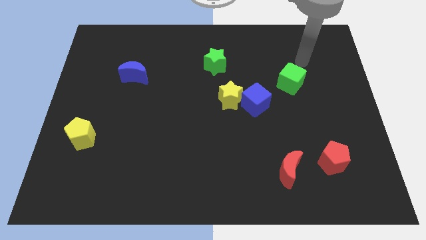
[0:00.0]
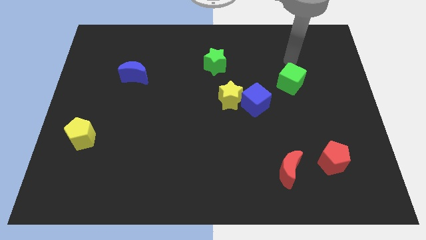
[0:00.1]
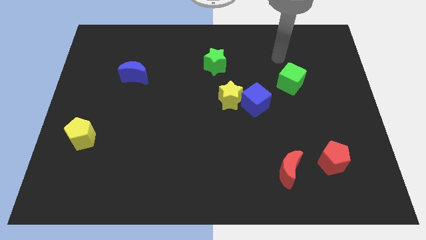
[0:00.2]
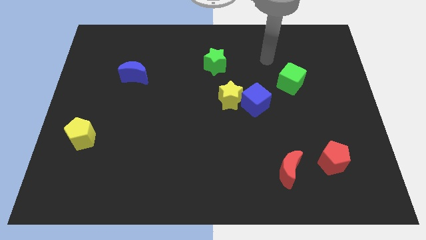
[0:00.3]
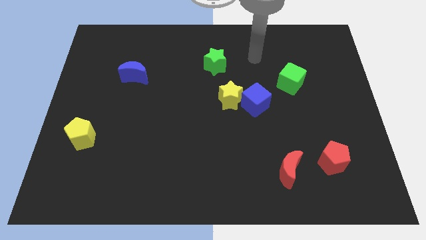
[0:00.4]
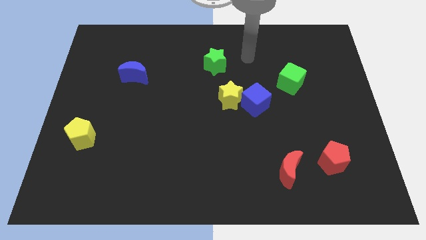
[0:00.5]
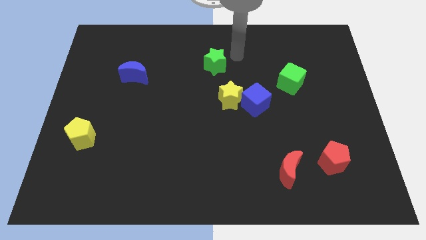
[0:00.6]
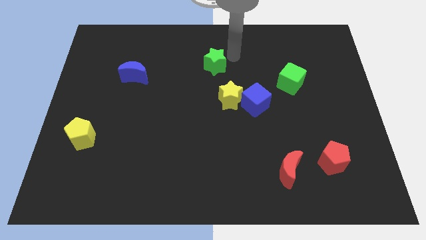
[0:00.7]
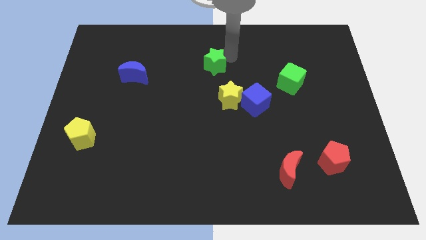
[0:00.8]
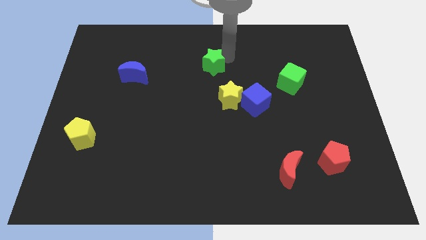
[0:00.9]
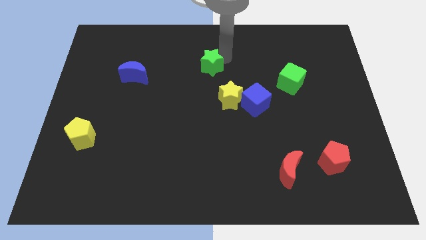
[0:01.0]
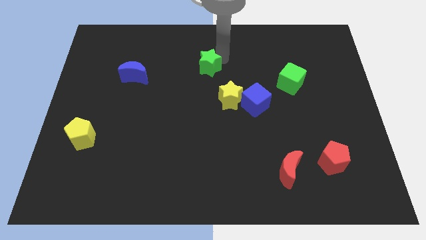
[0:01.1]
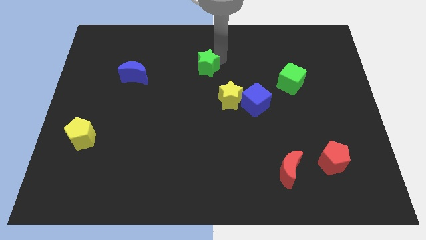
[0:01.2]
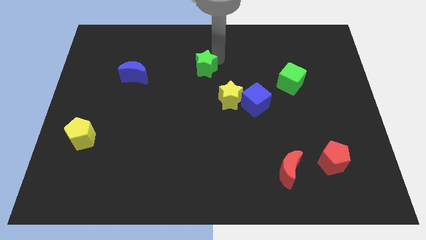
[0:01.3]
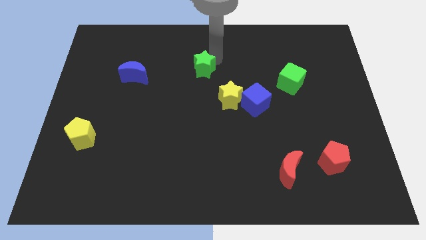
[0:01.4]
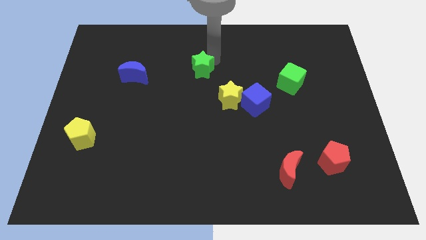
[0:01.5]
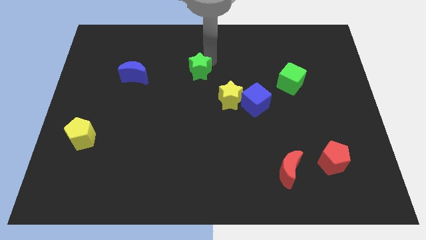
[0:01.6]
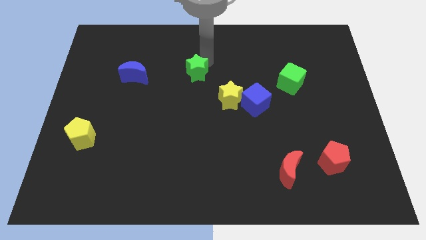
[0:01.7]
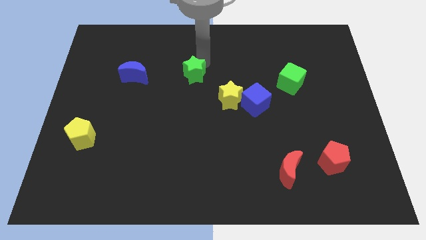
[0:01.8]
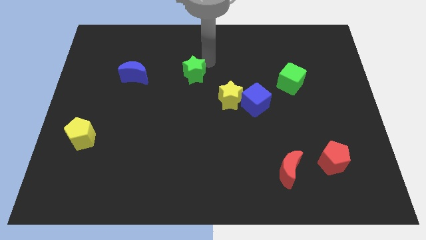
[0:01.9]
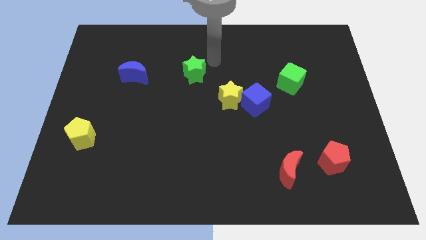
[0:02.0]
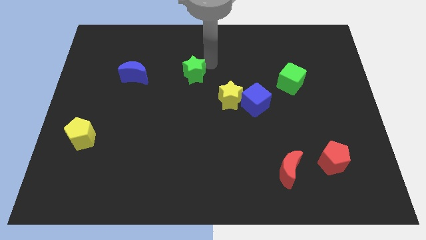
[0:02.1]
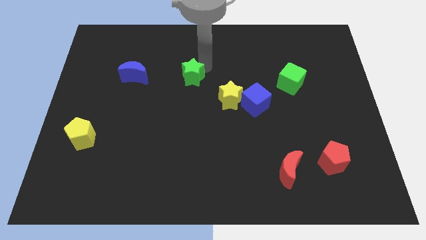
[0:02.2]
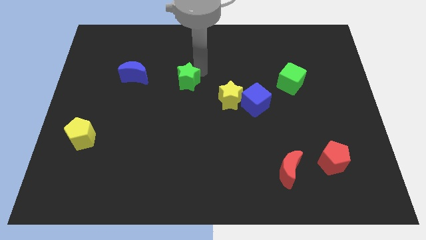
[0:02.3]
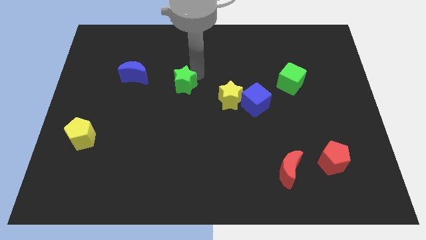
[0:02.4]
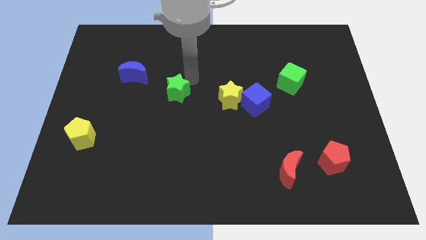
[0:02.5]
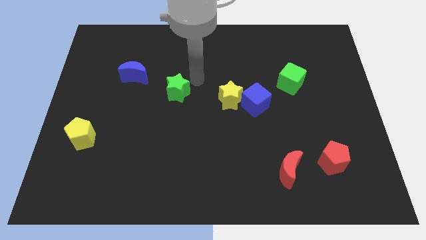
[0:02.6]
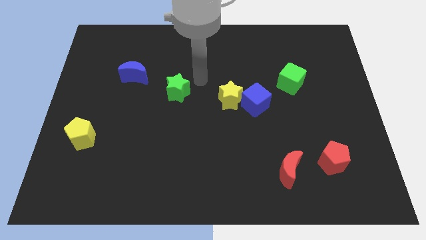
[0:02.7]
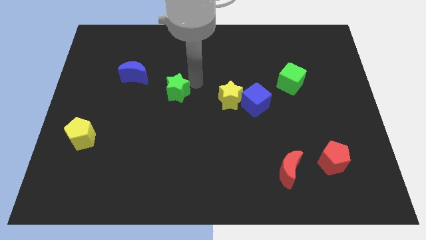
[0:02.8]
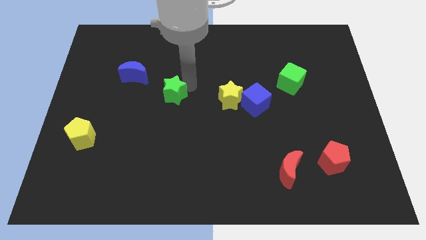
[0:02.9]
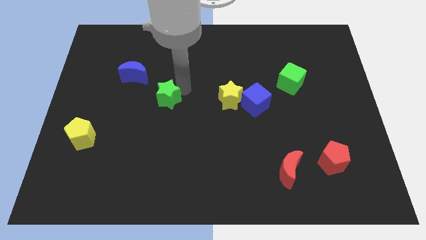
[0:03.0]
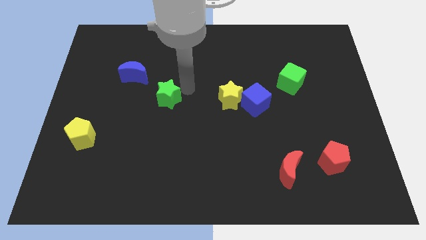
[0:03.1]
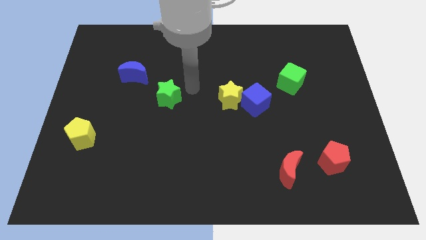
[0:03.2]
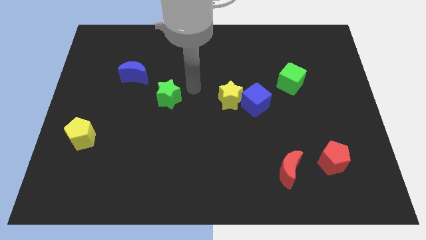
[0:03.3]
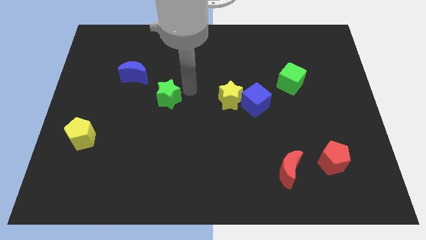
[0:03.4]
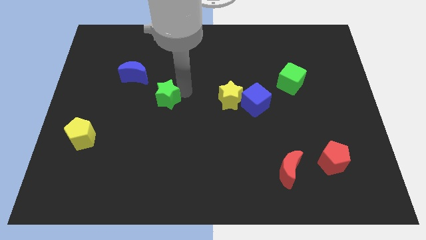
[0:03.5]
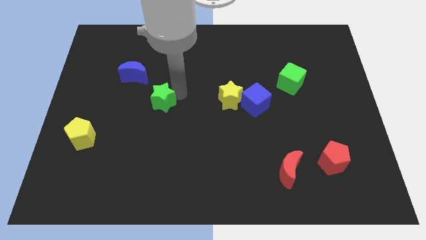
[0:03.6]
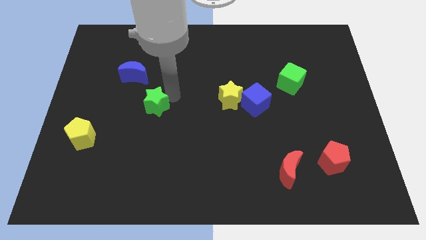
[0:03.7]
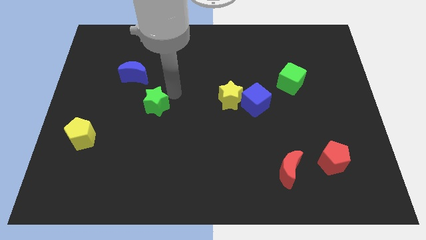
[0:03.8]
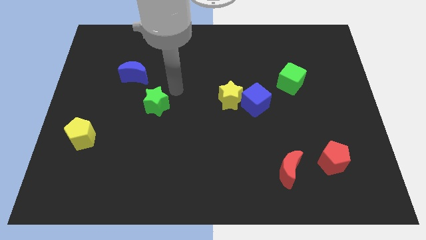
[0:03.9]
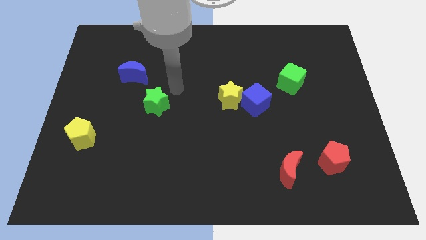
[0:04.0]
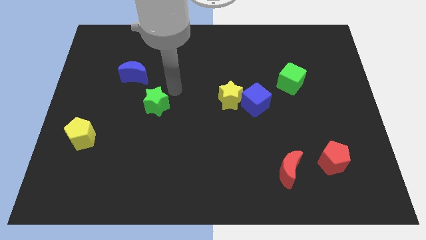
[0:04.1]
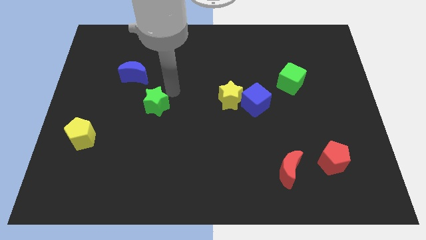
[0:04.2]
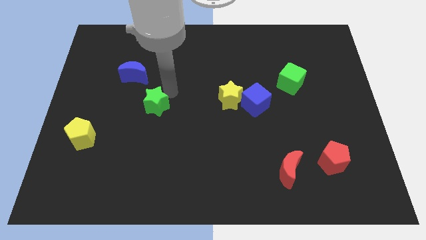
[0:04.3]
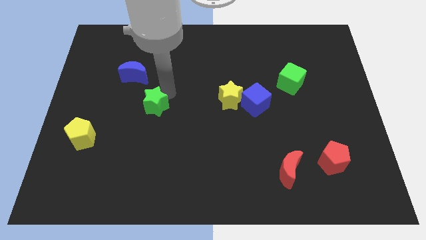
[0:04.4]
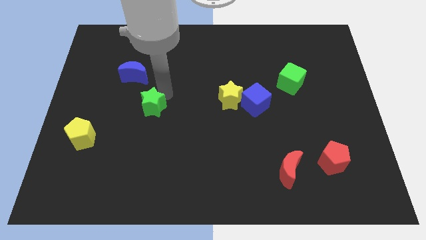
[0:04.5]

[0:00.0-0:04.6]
push the green star down and left

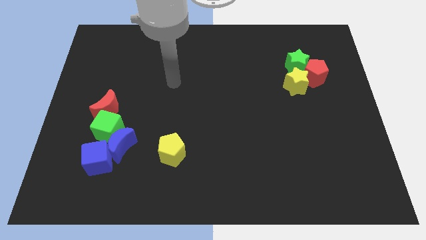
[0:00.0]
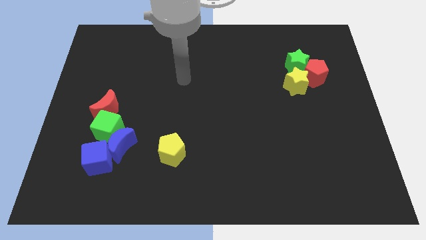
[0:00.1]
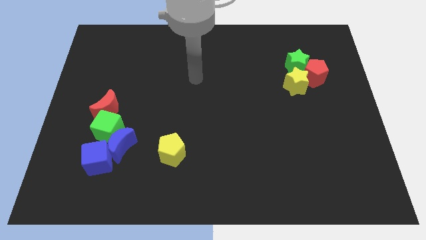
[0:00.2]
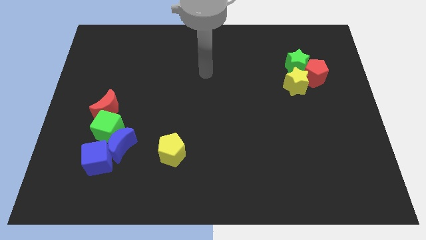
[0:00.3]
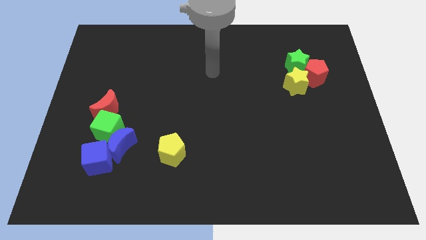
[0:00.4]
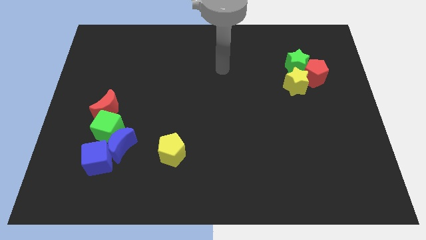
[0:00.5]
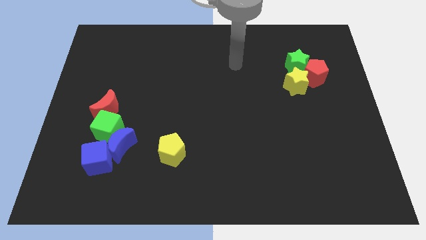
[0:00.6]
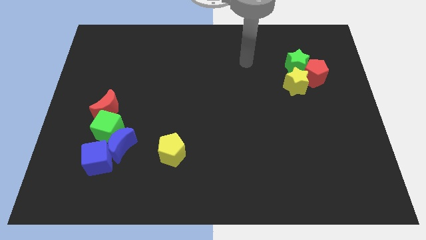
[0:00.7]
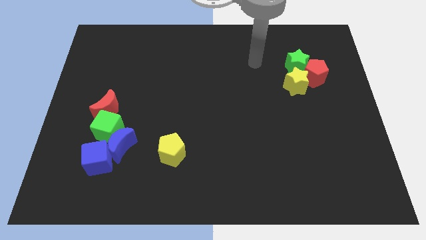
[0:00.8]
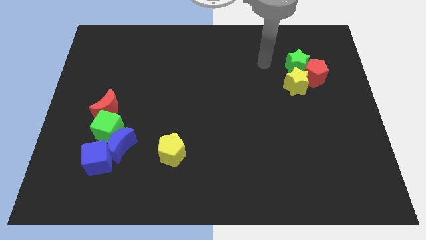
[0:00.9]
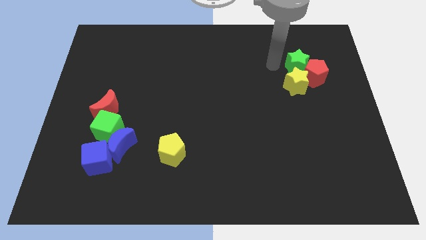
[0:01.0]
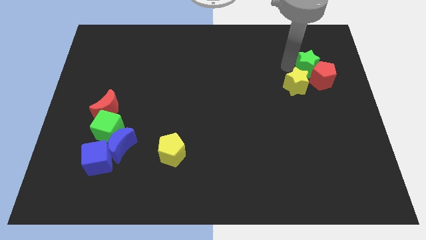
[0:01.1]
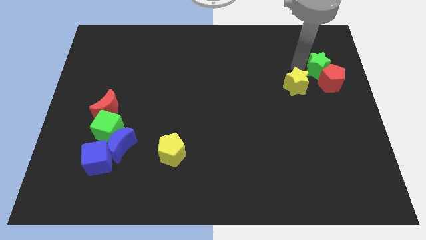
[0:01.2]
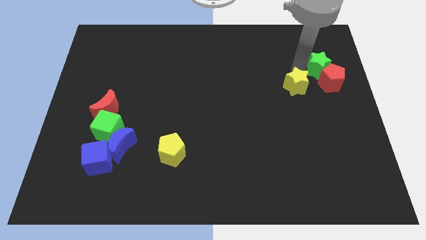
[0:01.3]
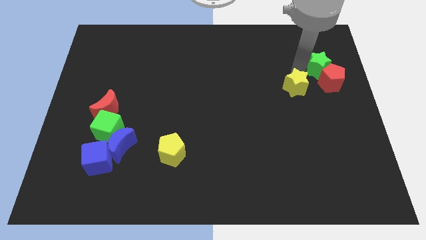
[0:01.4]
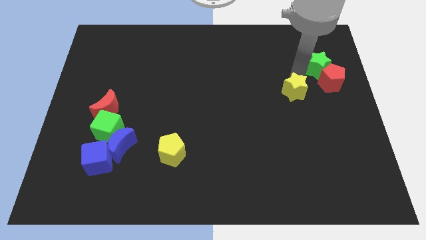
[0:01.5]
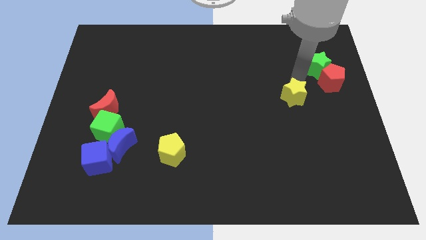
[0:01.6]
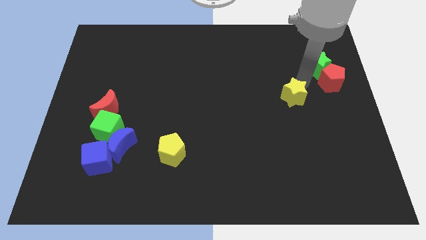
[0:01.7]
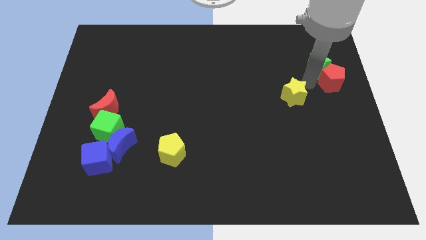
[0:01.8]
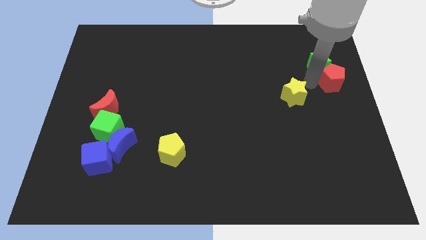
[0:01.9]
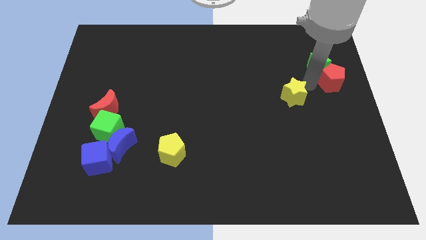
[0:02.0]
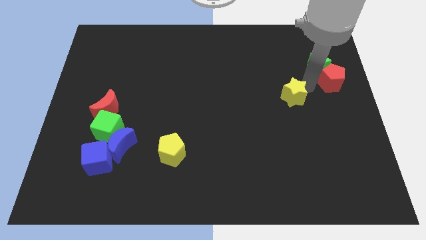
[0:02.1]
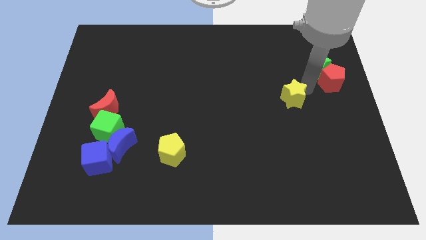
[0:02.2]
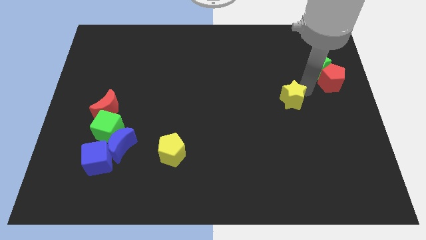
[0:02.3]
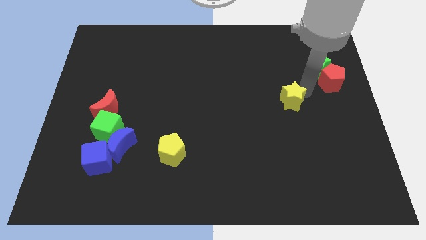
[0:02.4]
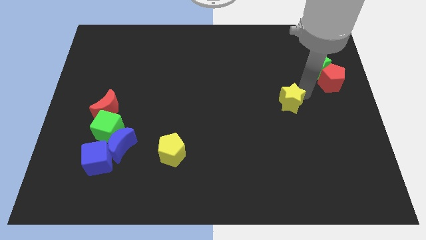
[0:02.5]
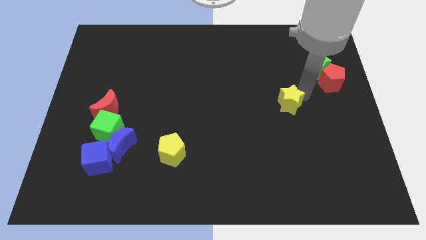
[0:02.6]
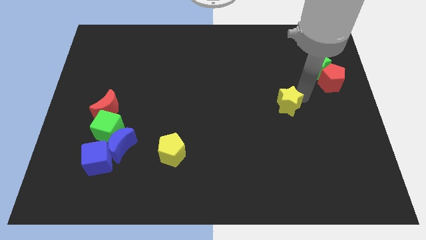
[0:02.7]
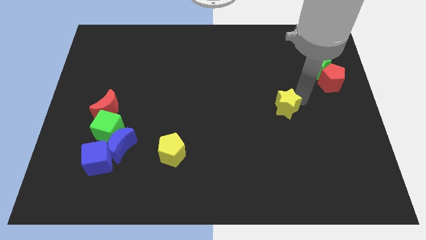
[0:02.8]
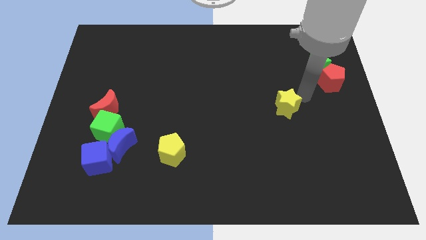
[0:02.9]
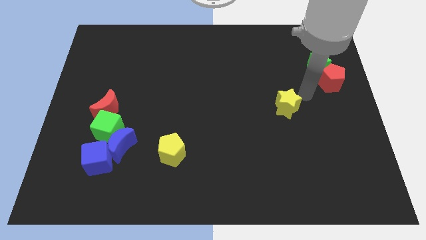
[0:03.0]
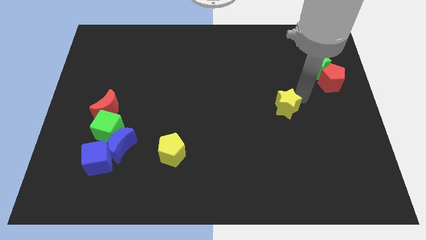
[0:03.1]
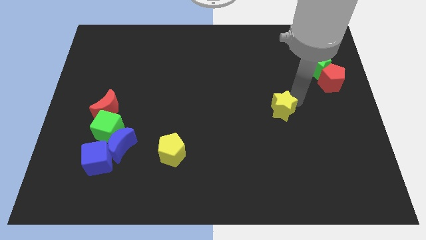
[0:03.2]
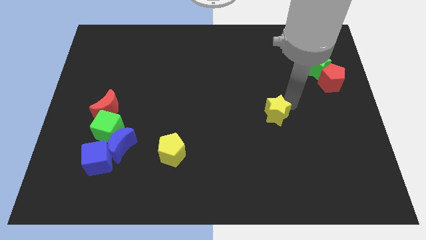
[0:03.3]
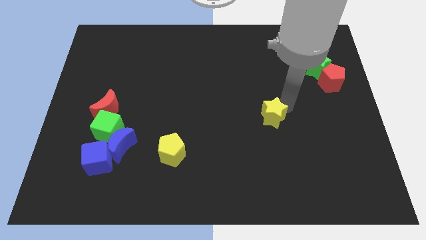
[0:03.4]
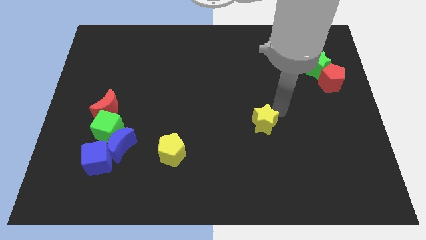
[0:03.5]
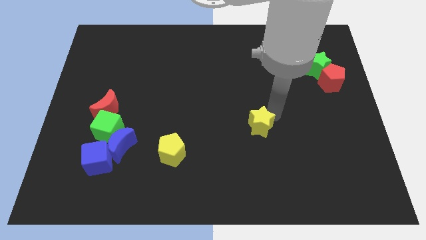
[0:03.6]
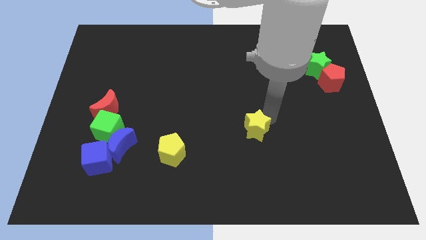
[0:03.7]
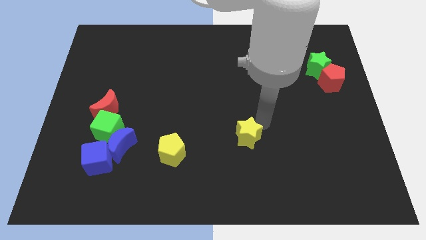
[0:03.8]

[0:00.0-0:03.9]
push the yellow star diagonally downwards and to the left
